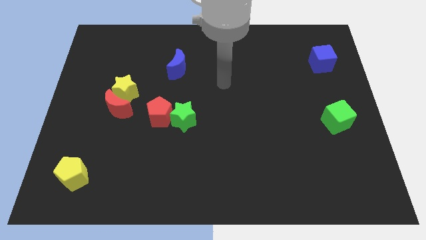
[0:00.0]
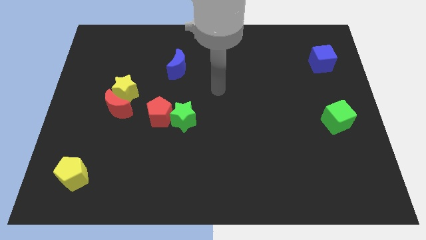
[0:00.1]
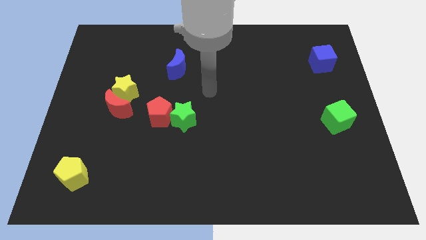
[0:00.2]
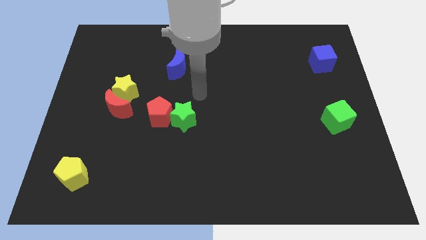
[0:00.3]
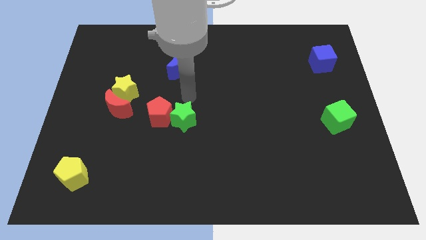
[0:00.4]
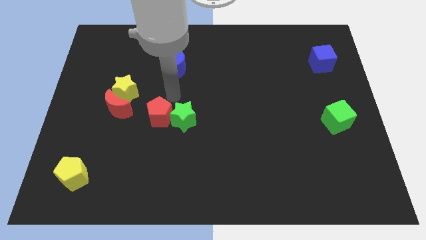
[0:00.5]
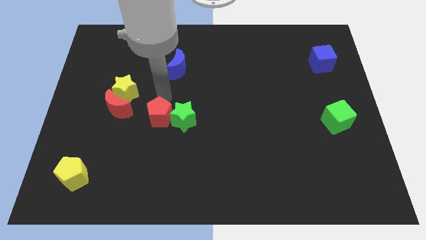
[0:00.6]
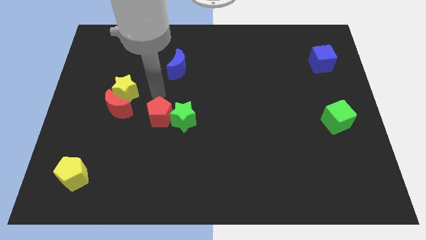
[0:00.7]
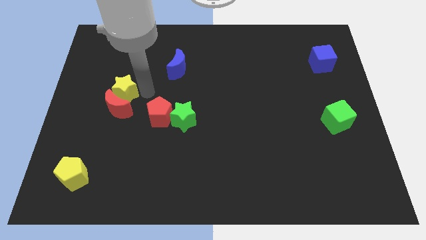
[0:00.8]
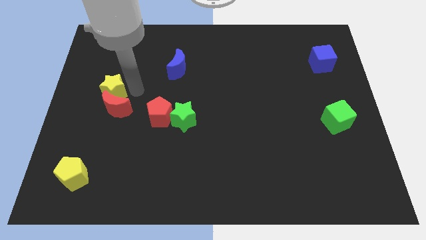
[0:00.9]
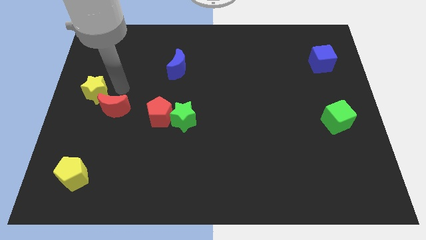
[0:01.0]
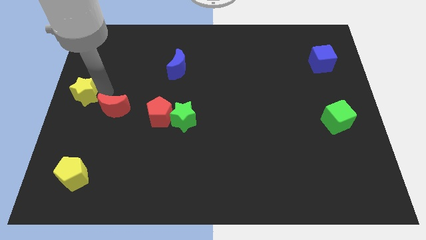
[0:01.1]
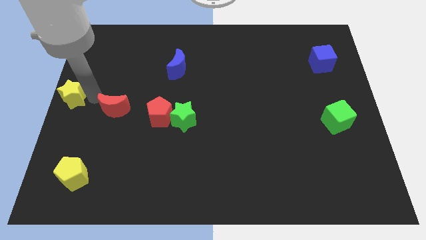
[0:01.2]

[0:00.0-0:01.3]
pull the red moon apart from the yellow star

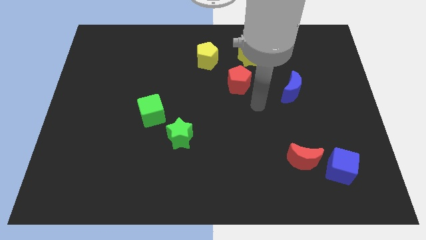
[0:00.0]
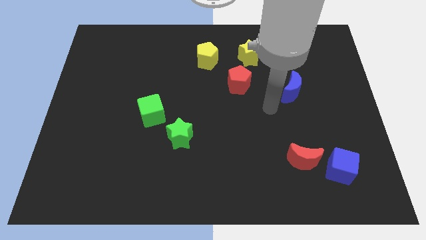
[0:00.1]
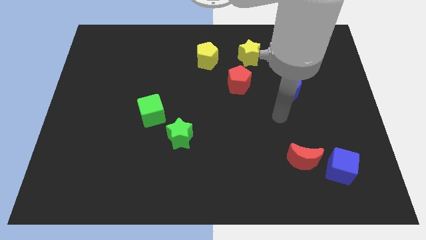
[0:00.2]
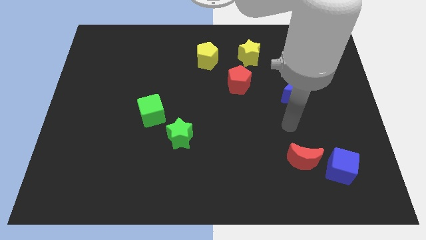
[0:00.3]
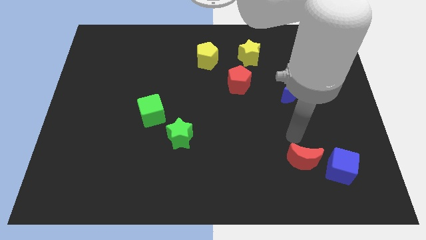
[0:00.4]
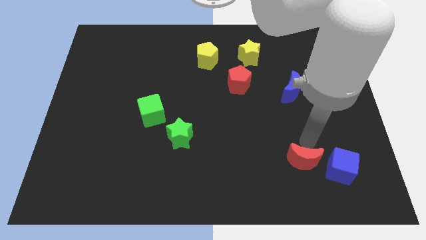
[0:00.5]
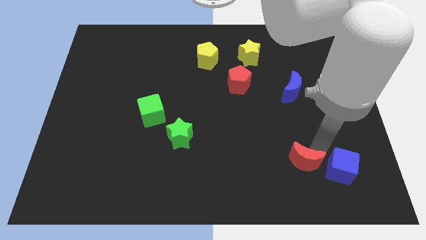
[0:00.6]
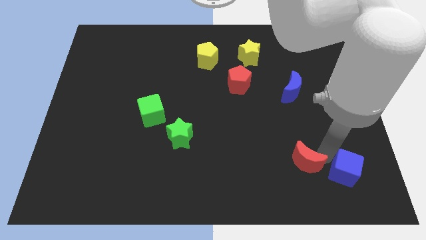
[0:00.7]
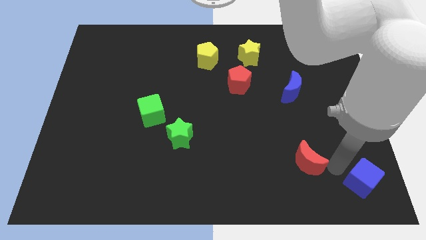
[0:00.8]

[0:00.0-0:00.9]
separate the red moon from the blue cube

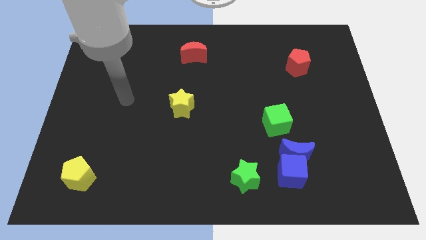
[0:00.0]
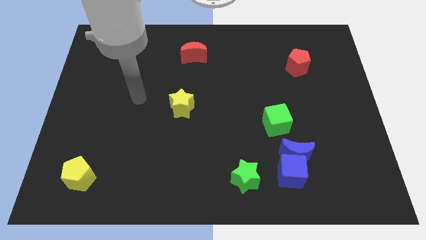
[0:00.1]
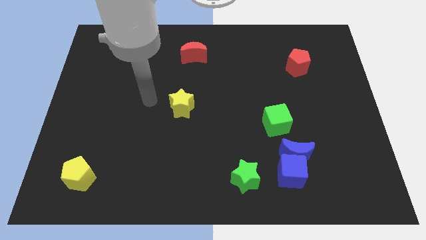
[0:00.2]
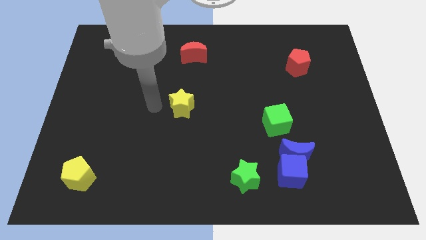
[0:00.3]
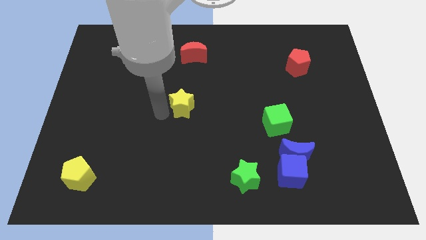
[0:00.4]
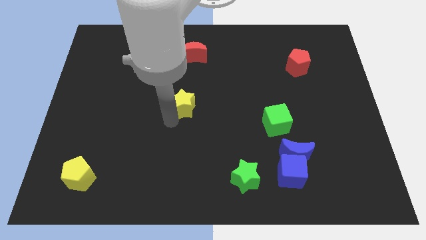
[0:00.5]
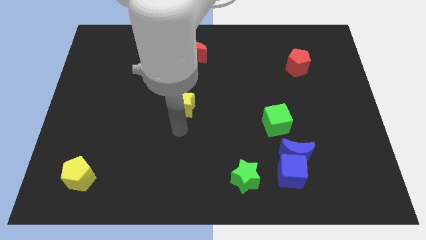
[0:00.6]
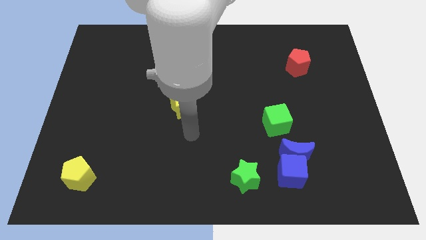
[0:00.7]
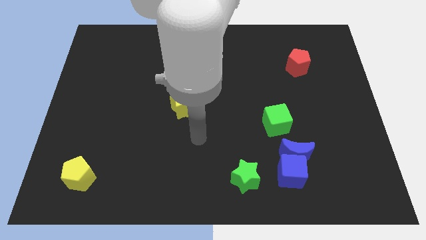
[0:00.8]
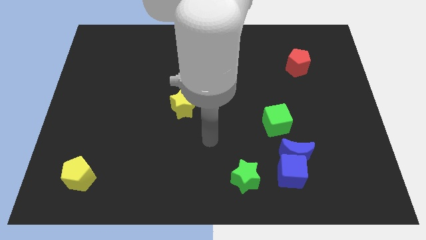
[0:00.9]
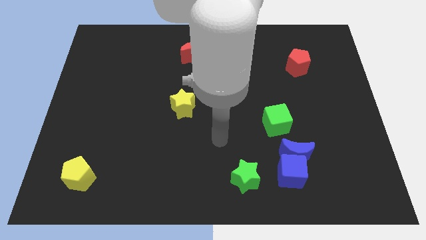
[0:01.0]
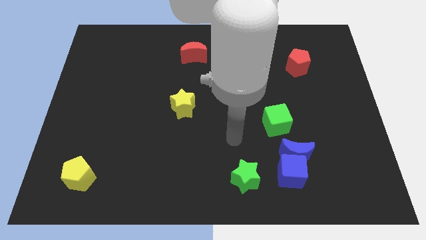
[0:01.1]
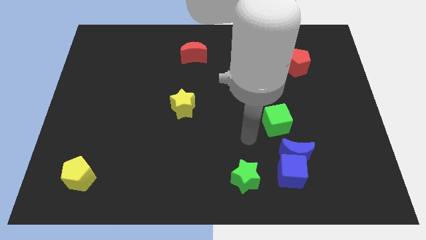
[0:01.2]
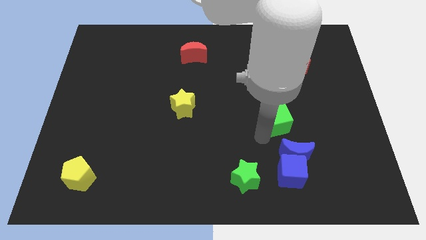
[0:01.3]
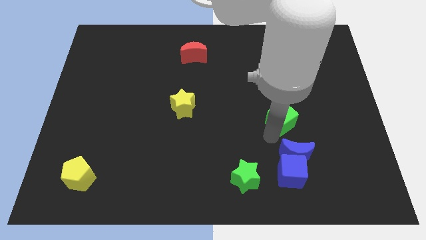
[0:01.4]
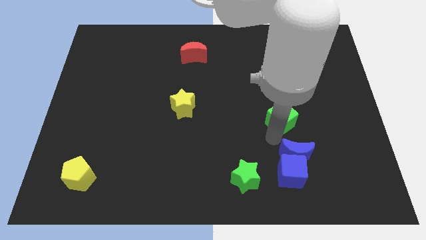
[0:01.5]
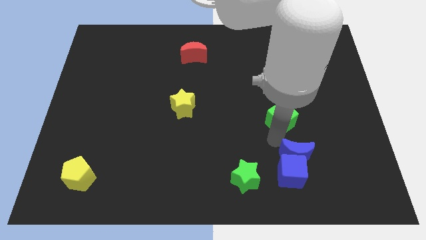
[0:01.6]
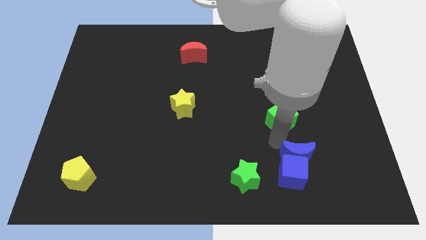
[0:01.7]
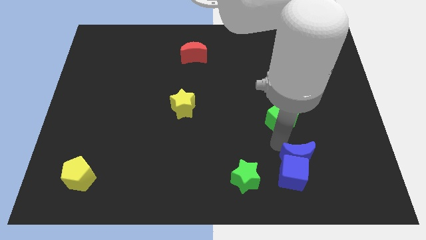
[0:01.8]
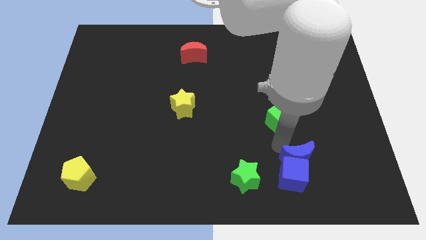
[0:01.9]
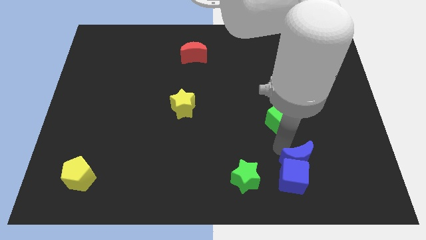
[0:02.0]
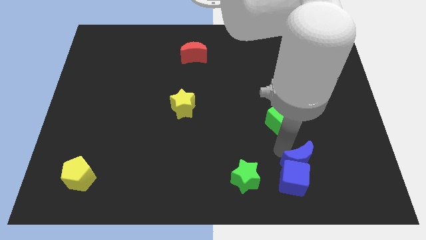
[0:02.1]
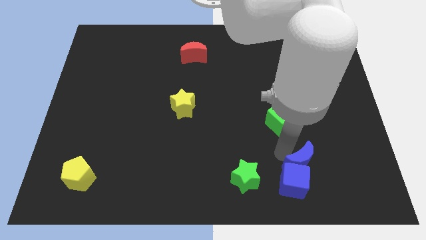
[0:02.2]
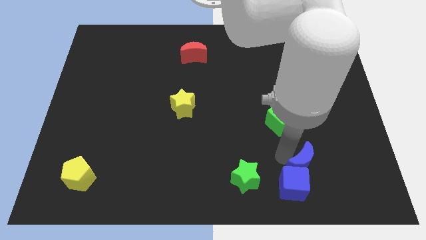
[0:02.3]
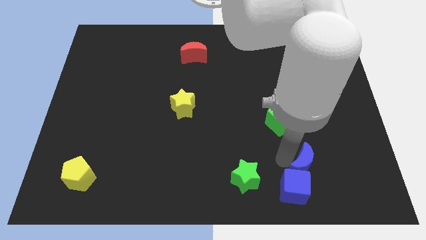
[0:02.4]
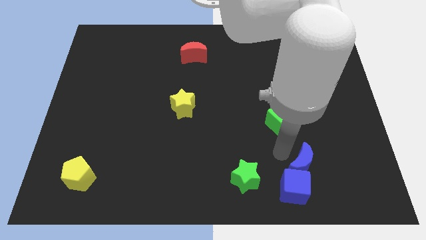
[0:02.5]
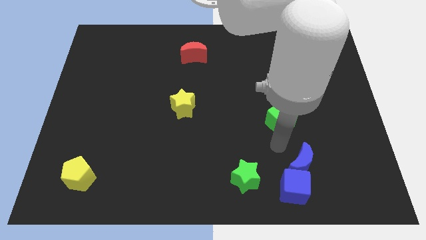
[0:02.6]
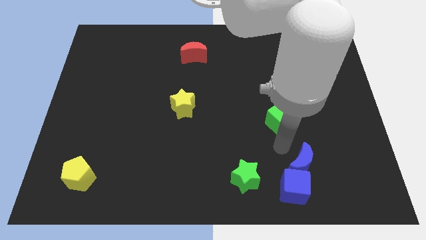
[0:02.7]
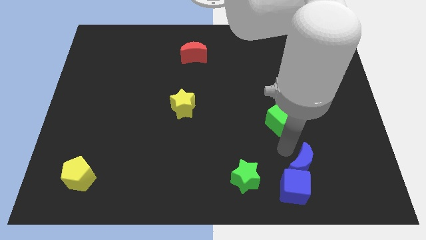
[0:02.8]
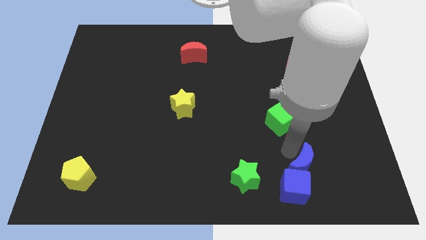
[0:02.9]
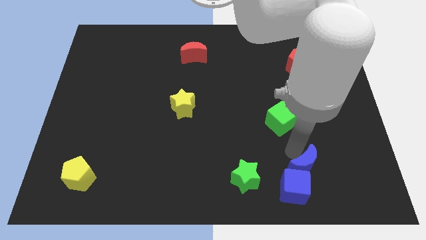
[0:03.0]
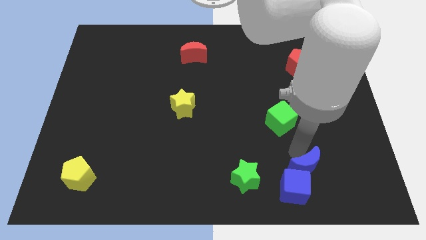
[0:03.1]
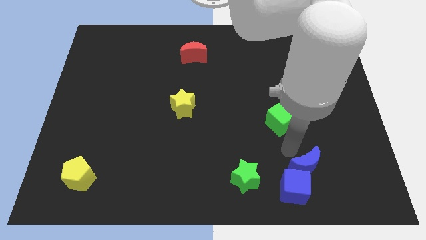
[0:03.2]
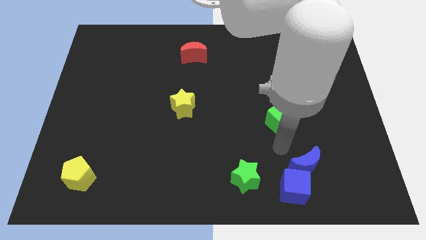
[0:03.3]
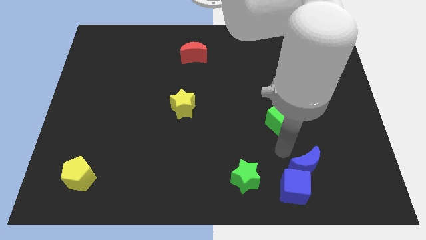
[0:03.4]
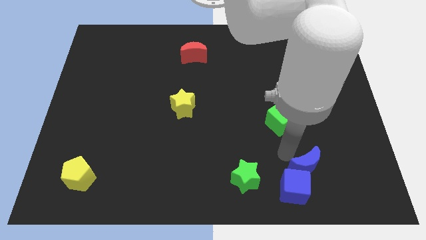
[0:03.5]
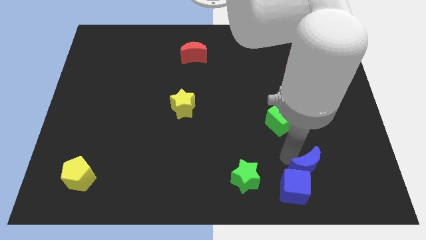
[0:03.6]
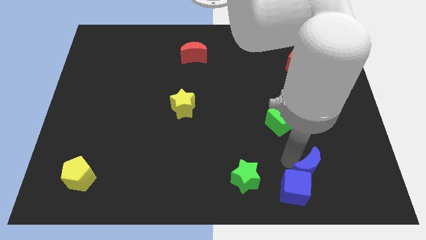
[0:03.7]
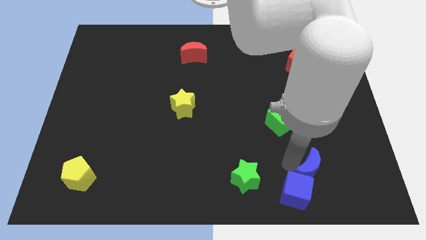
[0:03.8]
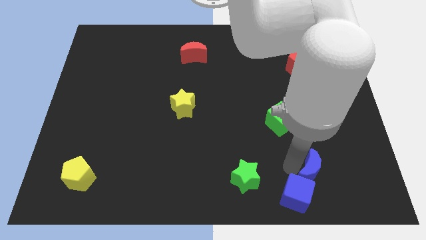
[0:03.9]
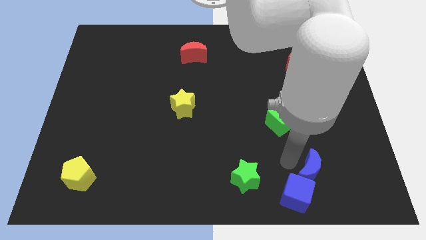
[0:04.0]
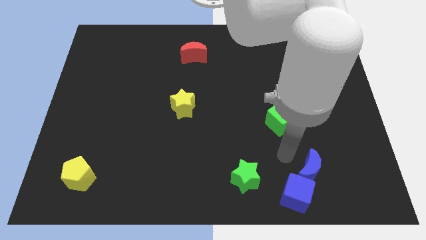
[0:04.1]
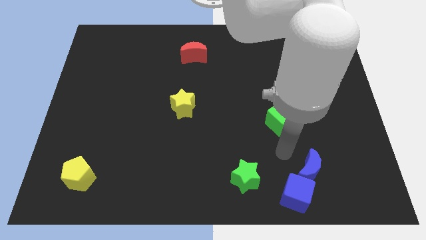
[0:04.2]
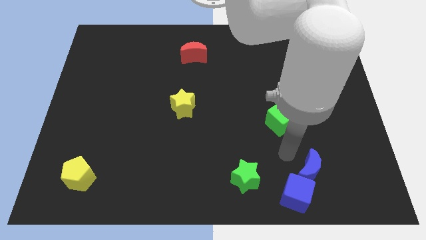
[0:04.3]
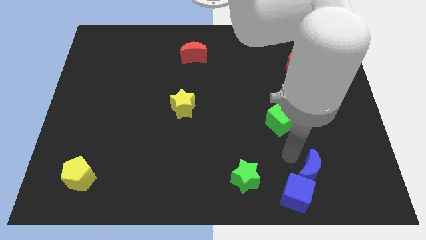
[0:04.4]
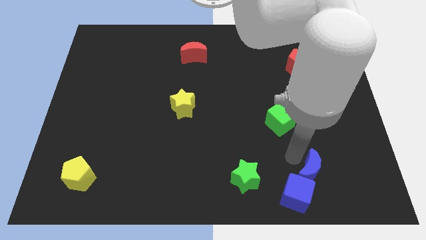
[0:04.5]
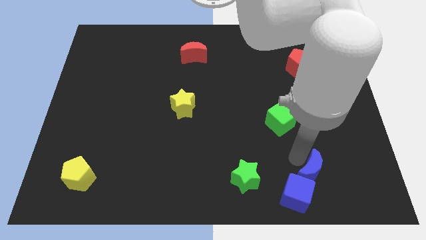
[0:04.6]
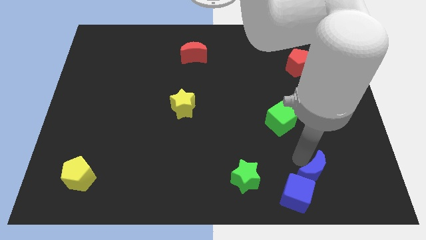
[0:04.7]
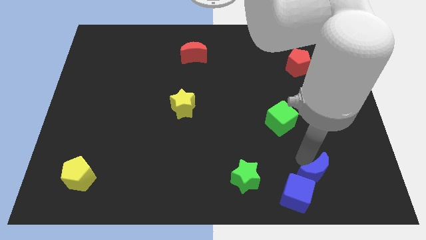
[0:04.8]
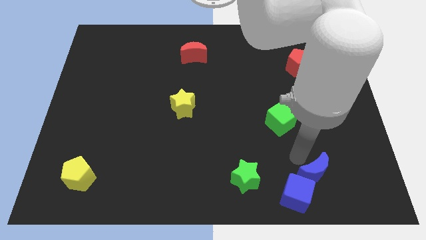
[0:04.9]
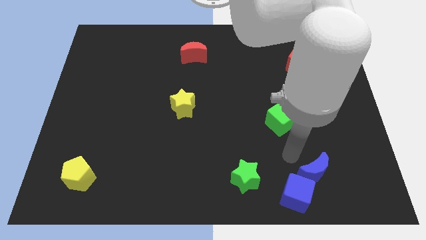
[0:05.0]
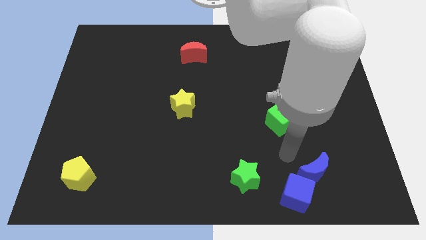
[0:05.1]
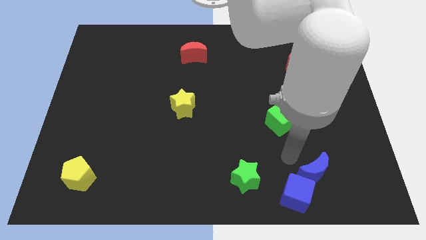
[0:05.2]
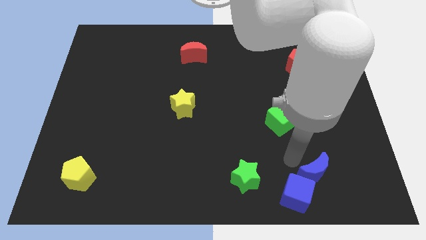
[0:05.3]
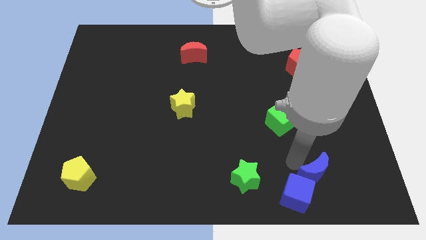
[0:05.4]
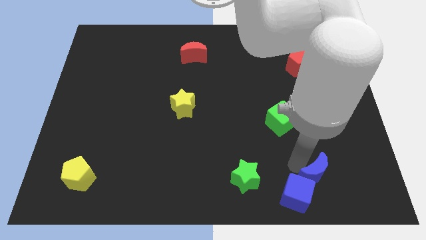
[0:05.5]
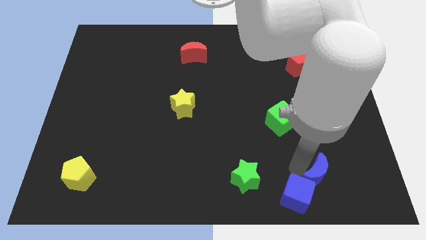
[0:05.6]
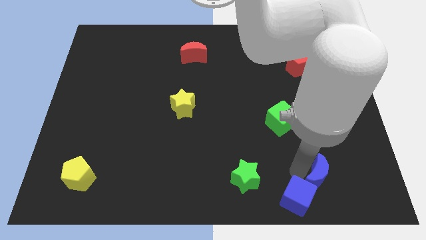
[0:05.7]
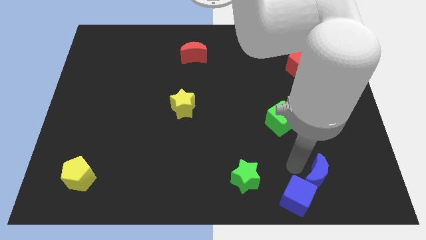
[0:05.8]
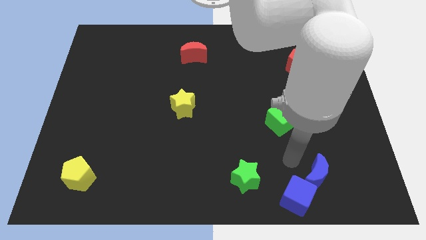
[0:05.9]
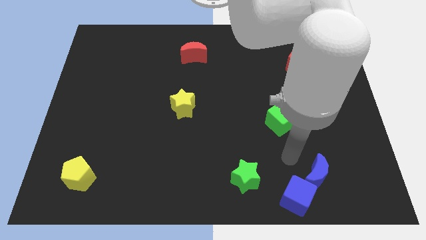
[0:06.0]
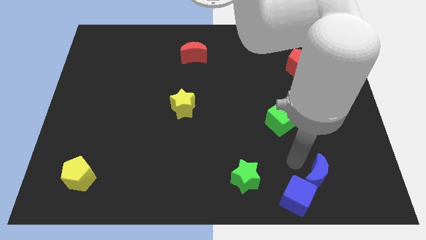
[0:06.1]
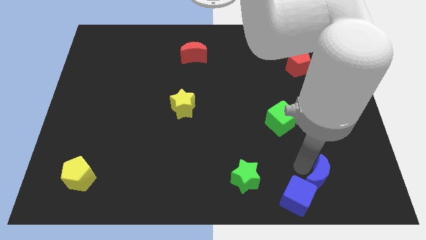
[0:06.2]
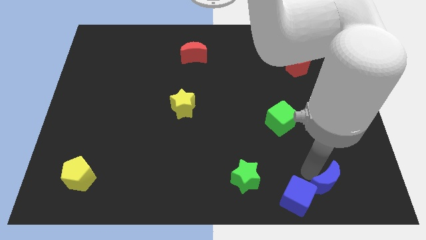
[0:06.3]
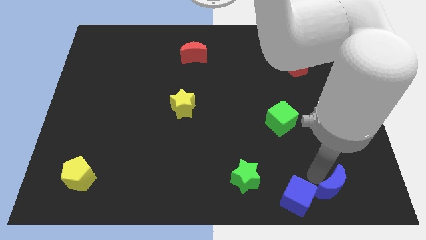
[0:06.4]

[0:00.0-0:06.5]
pull the blue moon apart from the blue cube and green cube

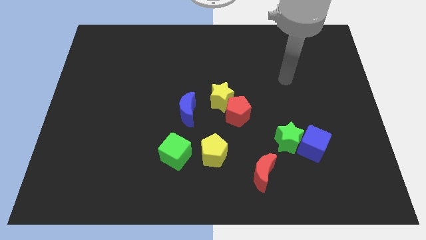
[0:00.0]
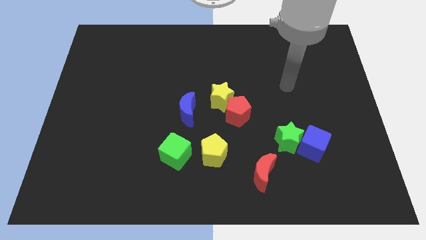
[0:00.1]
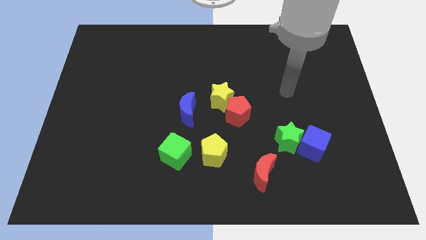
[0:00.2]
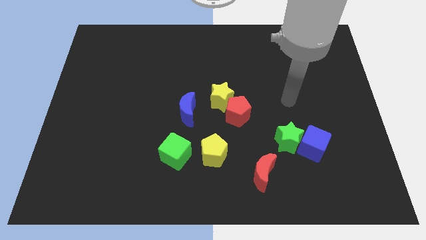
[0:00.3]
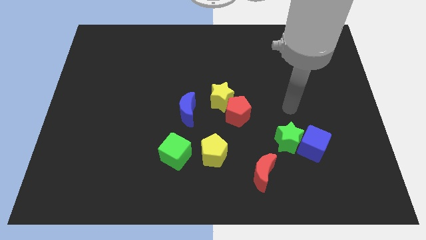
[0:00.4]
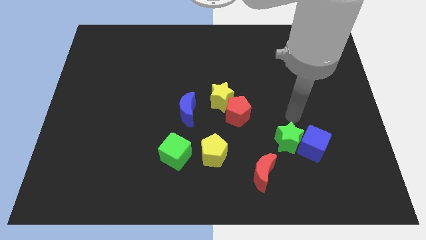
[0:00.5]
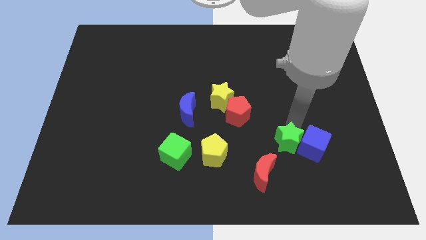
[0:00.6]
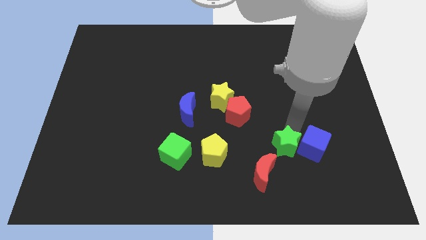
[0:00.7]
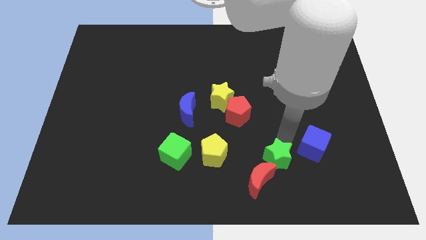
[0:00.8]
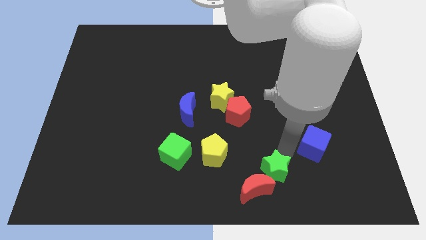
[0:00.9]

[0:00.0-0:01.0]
move the blue cube away from the green star
